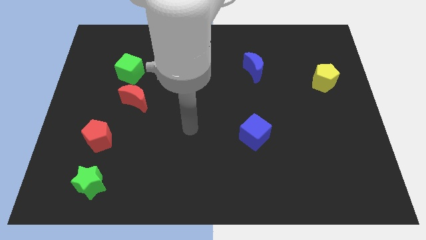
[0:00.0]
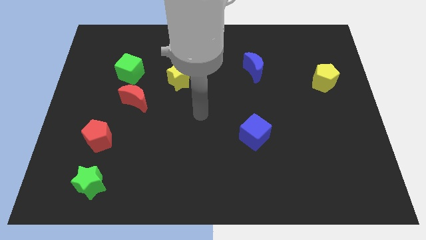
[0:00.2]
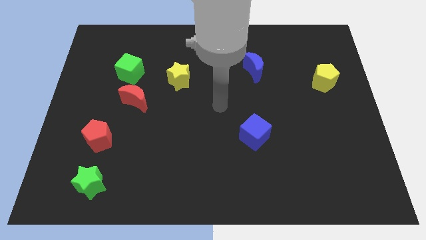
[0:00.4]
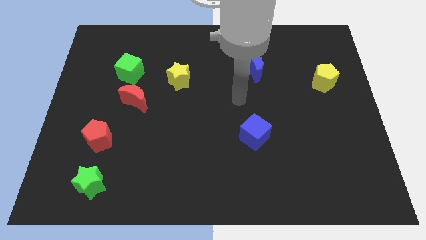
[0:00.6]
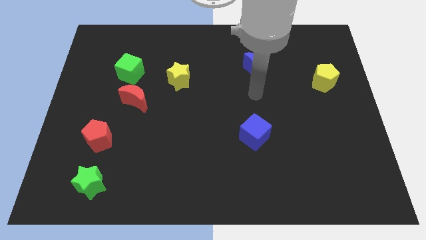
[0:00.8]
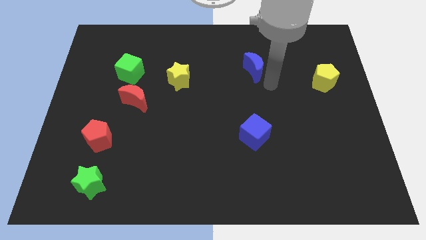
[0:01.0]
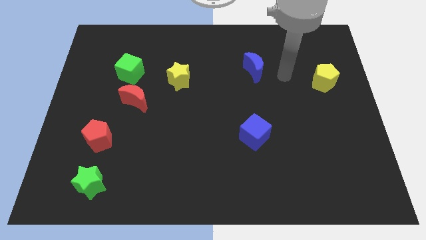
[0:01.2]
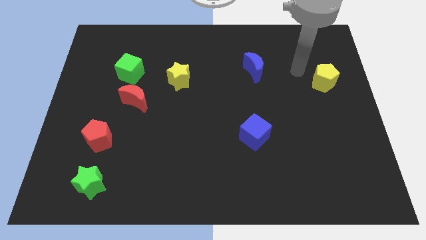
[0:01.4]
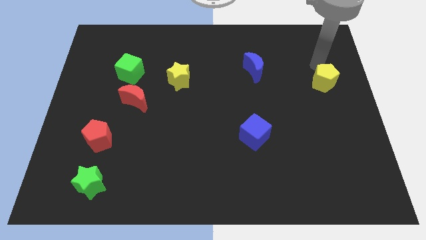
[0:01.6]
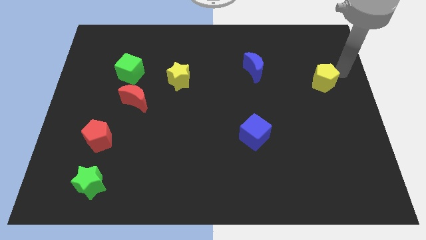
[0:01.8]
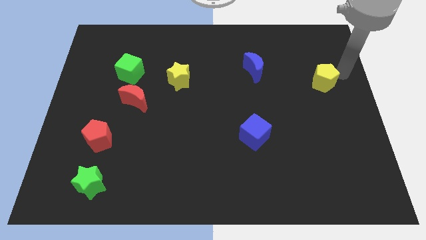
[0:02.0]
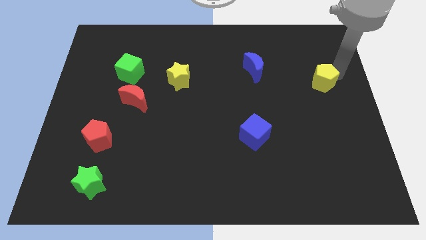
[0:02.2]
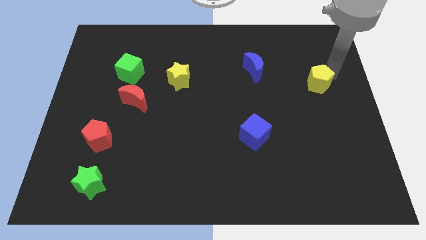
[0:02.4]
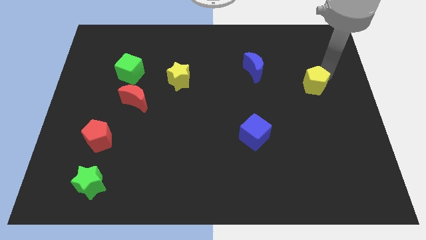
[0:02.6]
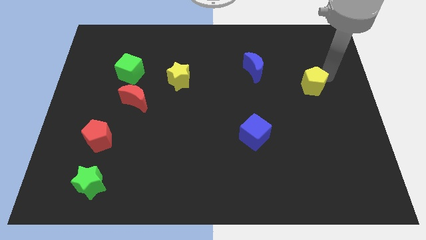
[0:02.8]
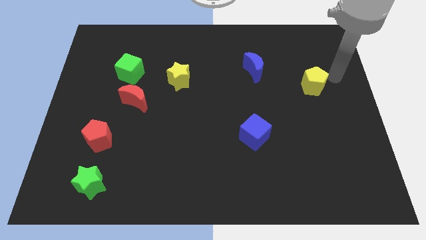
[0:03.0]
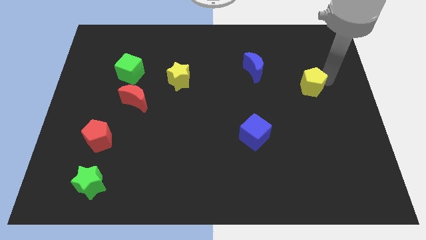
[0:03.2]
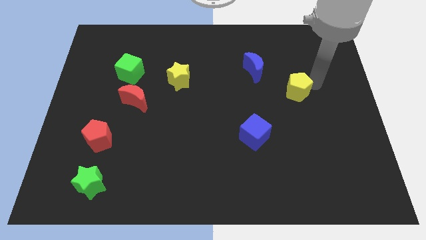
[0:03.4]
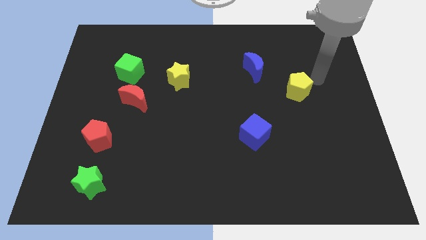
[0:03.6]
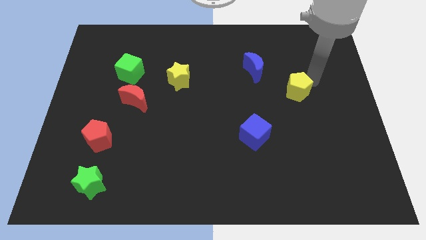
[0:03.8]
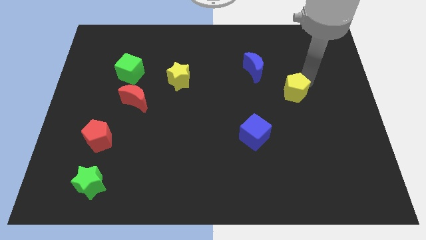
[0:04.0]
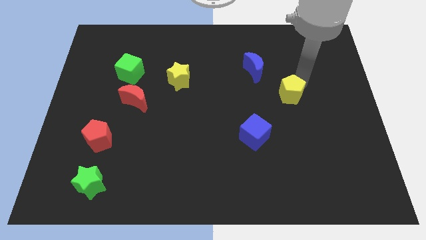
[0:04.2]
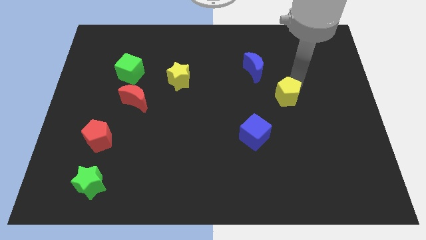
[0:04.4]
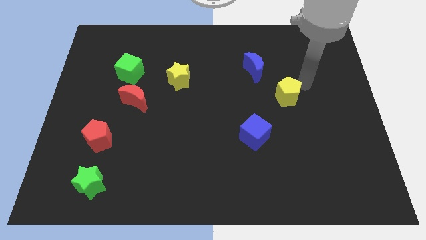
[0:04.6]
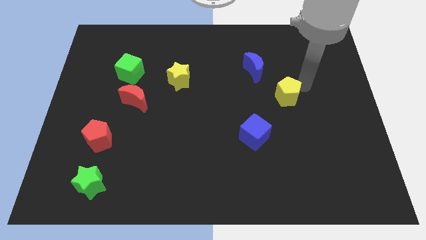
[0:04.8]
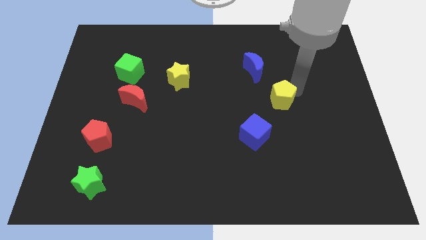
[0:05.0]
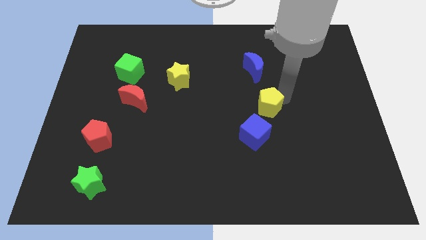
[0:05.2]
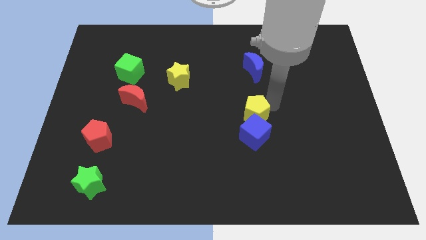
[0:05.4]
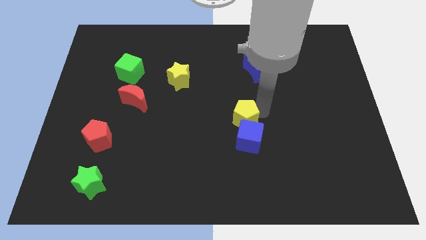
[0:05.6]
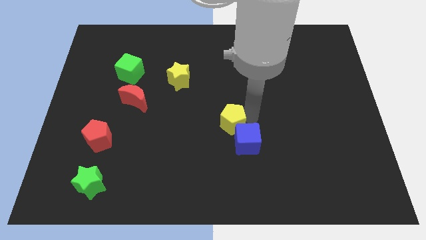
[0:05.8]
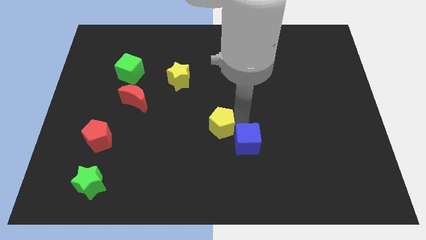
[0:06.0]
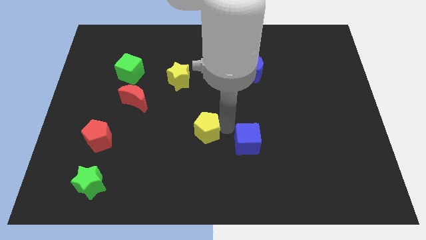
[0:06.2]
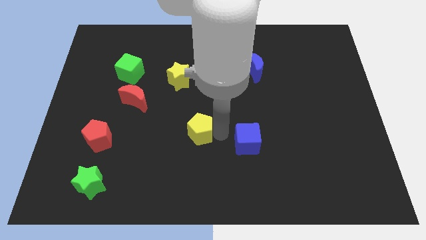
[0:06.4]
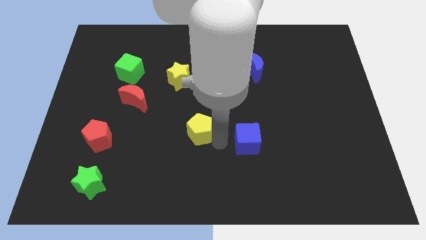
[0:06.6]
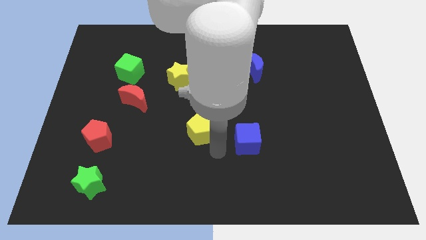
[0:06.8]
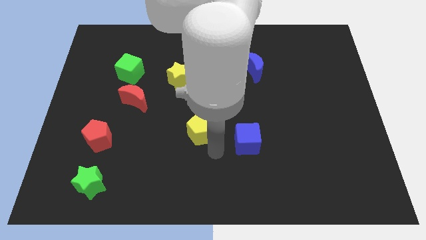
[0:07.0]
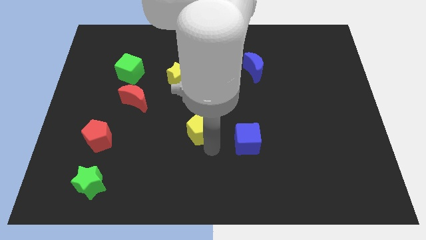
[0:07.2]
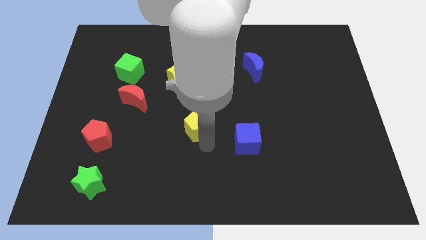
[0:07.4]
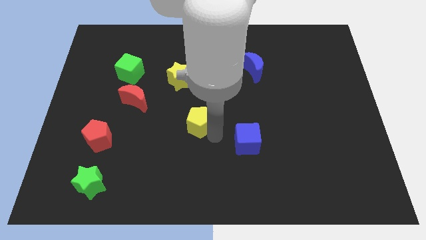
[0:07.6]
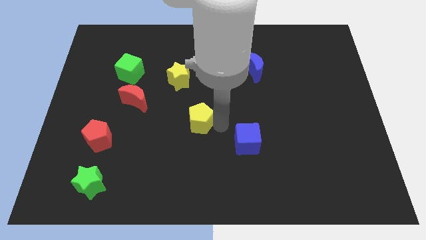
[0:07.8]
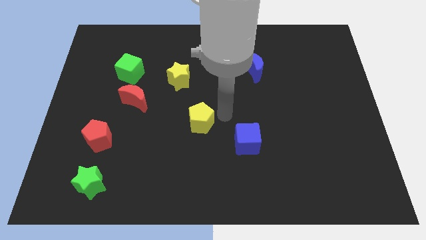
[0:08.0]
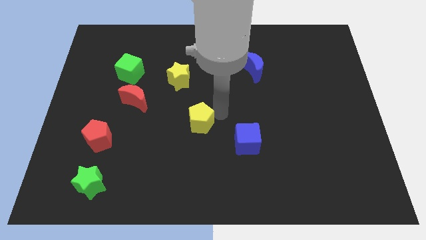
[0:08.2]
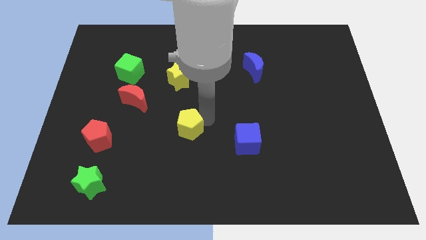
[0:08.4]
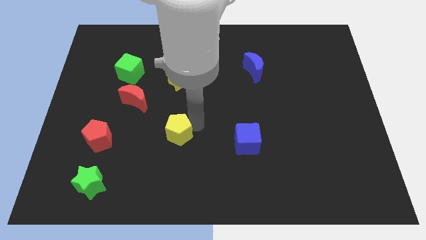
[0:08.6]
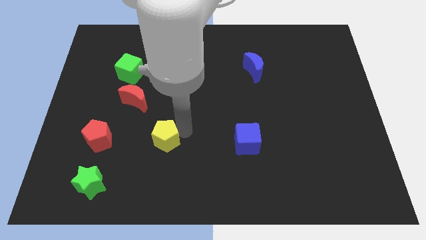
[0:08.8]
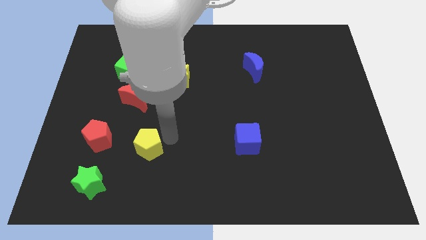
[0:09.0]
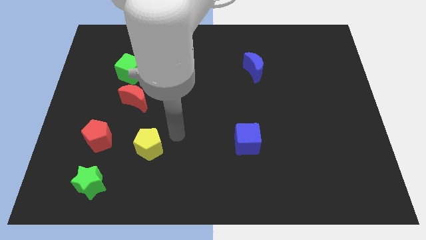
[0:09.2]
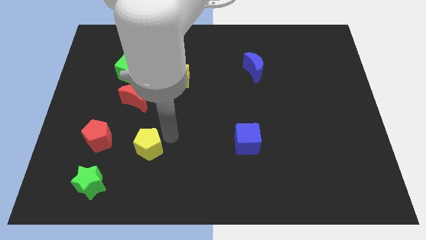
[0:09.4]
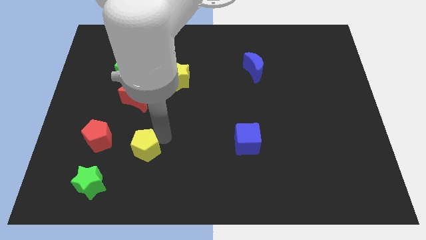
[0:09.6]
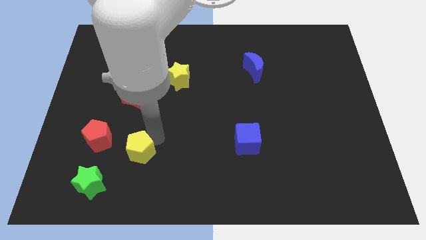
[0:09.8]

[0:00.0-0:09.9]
put the yellow pentagon to the bottom right side of the red pentagon

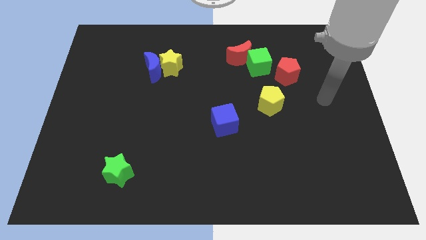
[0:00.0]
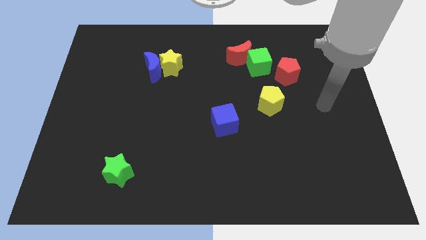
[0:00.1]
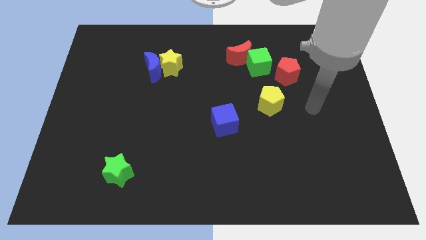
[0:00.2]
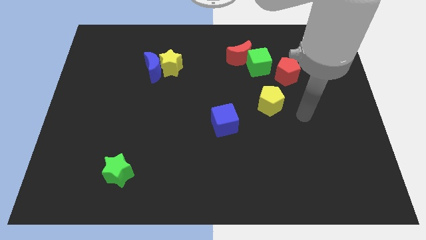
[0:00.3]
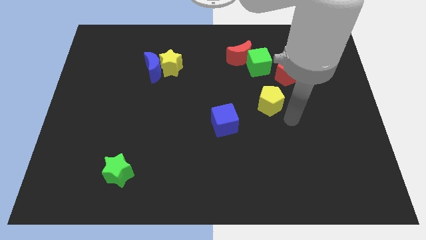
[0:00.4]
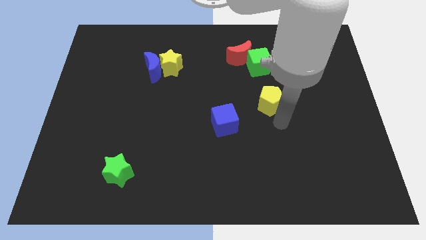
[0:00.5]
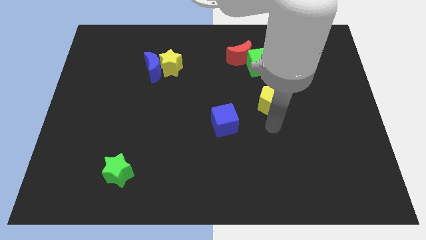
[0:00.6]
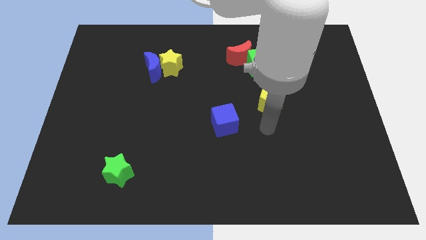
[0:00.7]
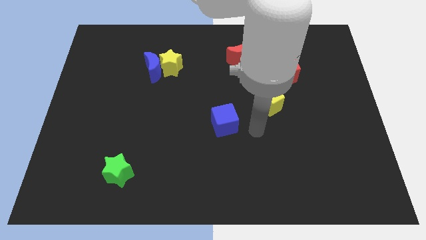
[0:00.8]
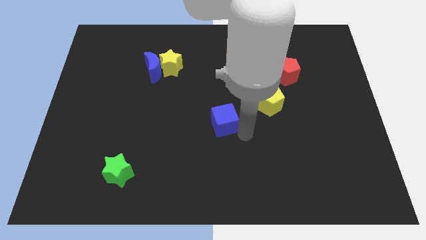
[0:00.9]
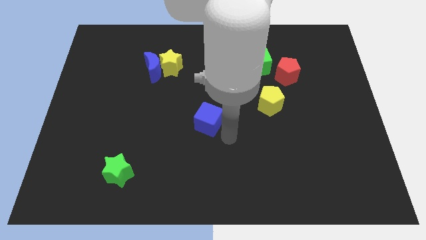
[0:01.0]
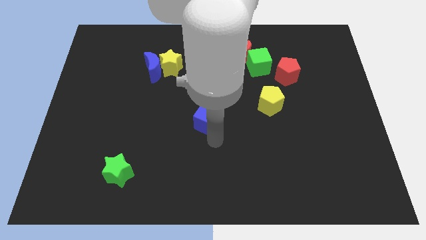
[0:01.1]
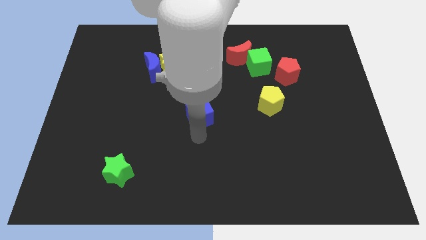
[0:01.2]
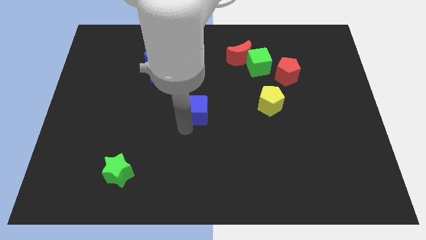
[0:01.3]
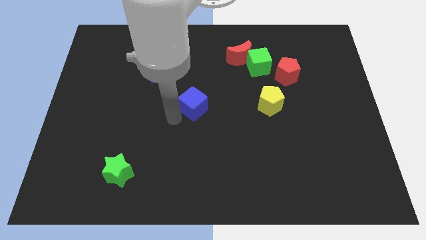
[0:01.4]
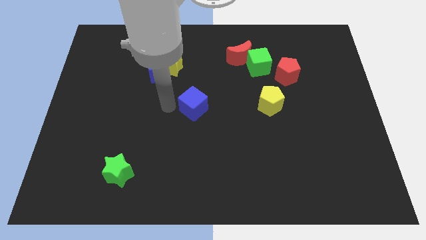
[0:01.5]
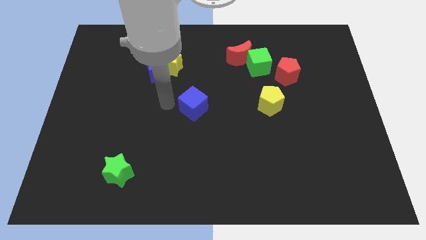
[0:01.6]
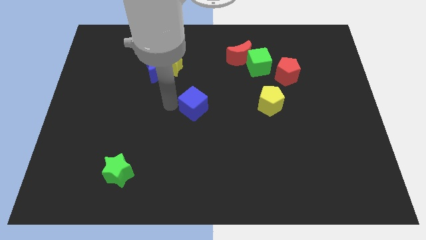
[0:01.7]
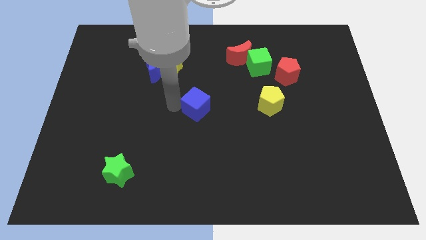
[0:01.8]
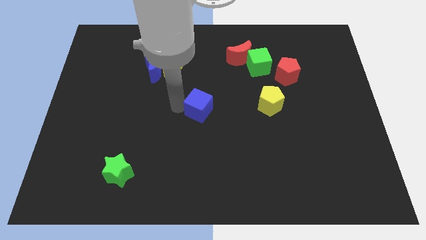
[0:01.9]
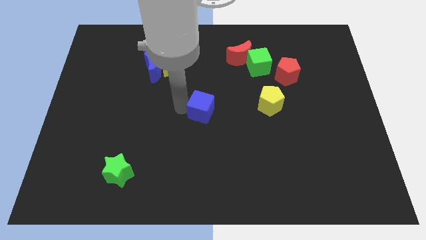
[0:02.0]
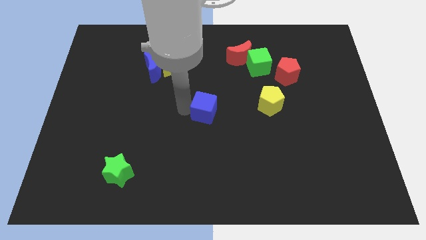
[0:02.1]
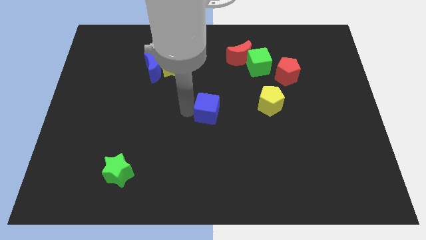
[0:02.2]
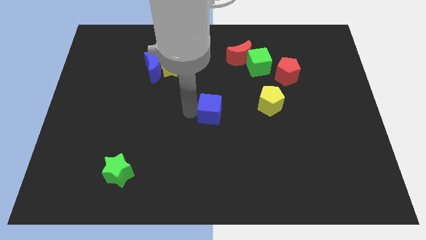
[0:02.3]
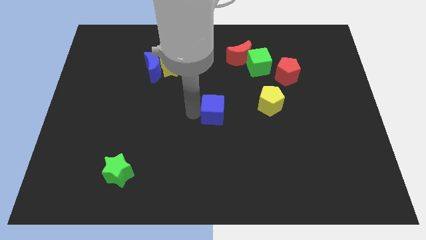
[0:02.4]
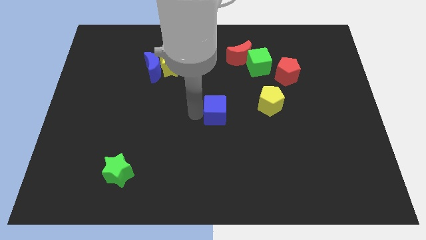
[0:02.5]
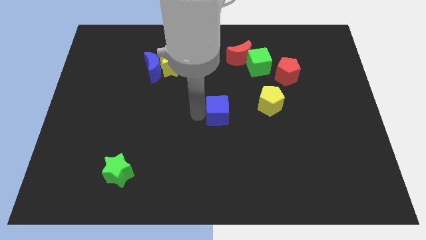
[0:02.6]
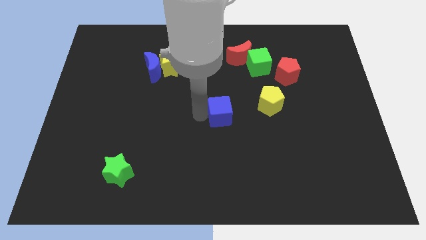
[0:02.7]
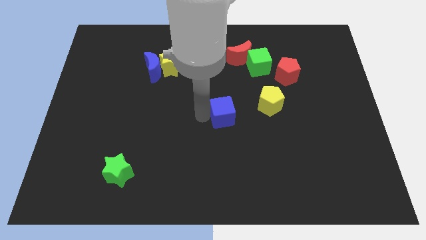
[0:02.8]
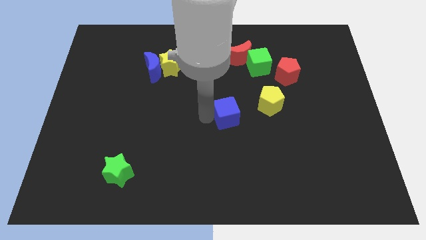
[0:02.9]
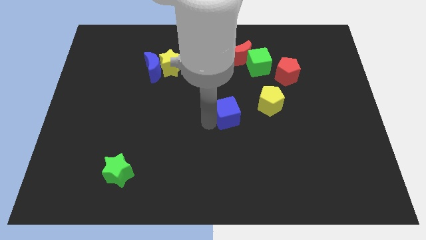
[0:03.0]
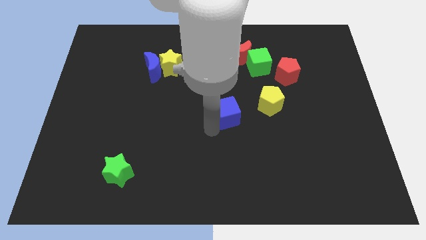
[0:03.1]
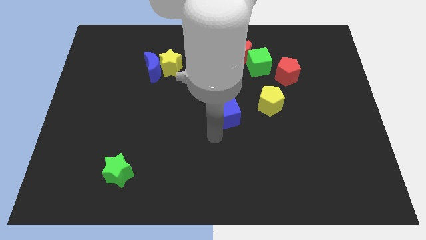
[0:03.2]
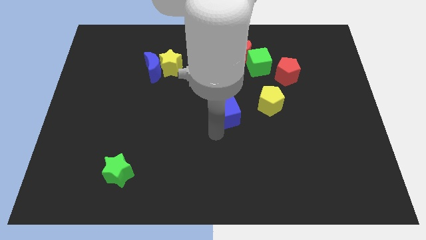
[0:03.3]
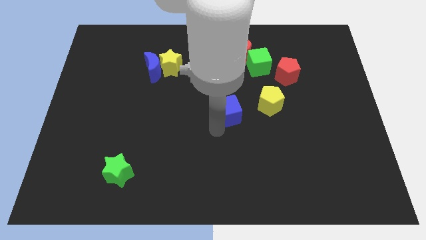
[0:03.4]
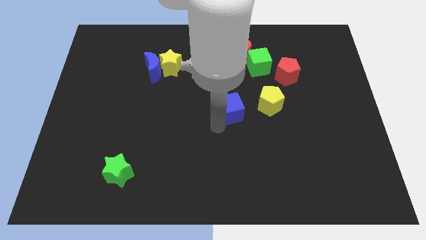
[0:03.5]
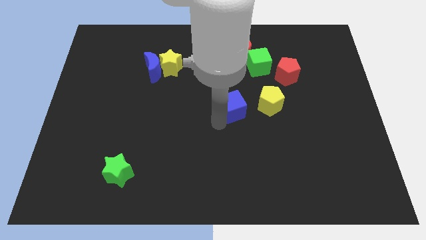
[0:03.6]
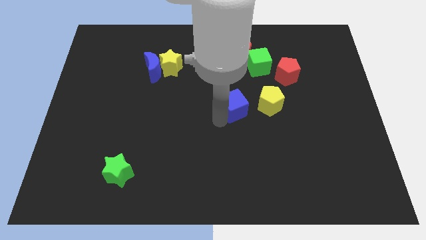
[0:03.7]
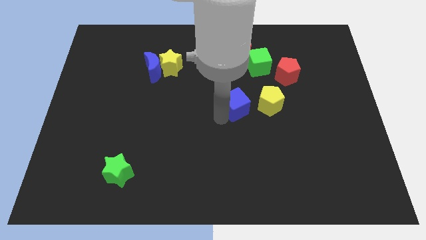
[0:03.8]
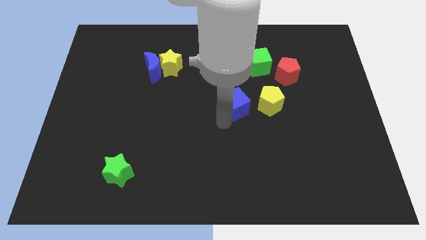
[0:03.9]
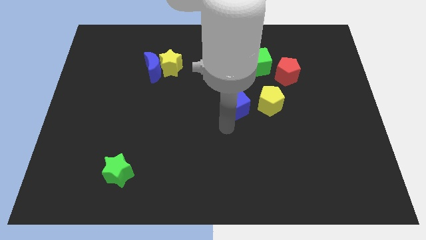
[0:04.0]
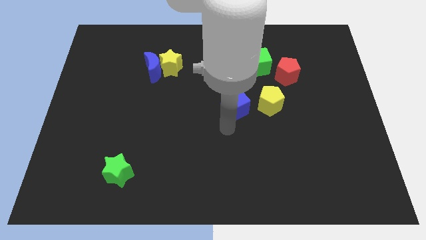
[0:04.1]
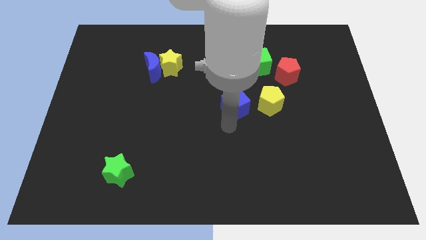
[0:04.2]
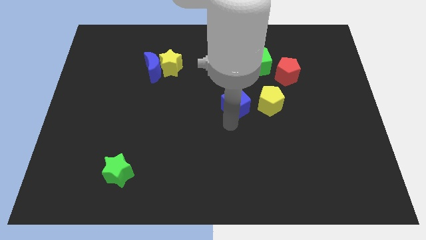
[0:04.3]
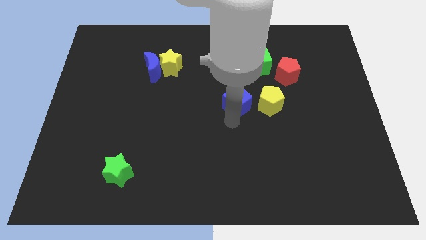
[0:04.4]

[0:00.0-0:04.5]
push the blue cube to the bottom of the red moon
